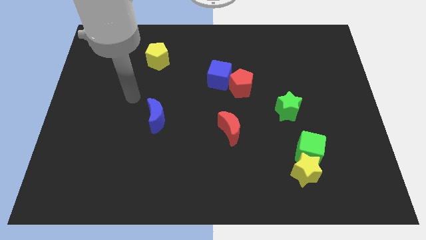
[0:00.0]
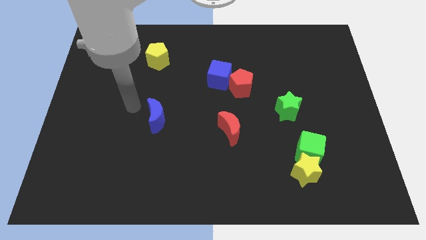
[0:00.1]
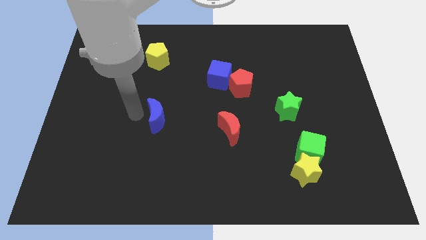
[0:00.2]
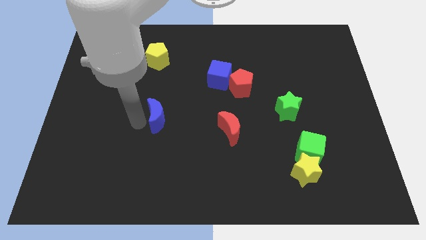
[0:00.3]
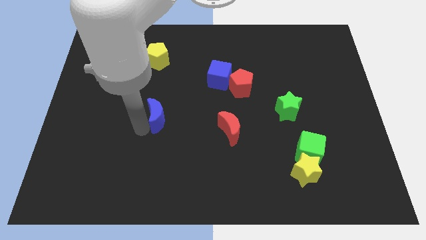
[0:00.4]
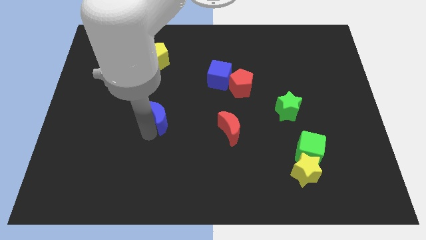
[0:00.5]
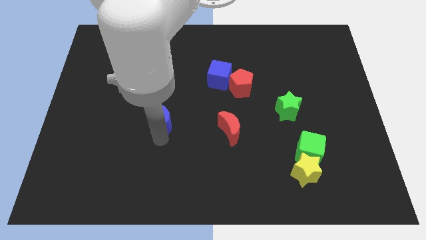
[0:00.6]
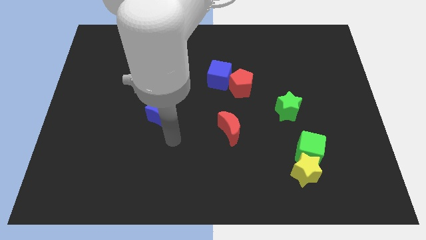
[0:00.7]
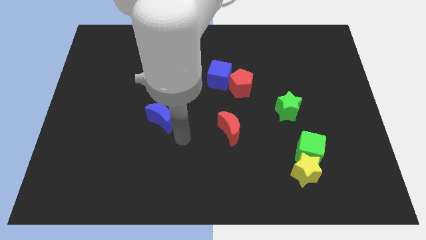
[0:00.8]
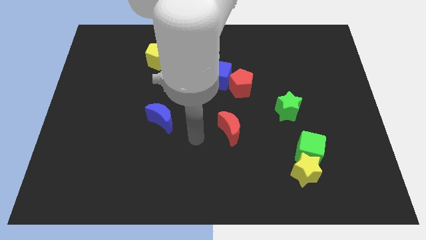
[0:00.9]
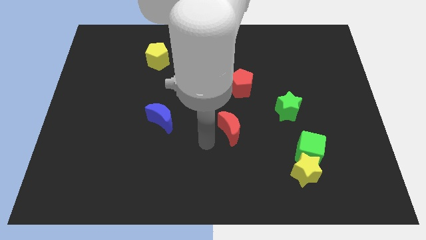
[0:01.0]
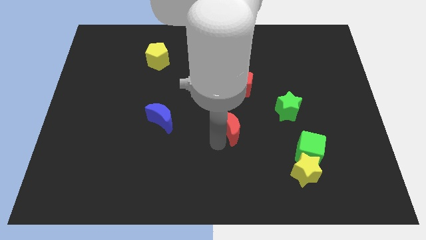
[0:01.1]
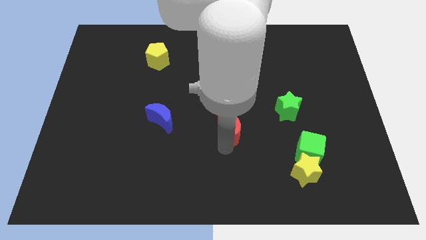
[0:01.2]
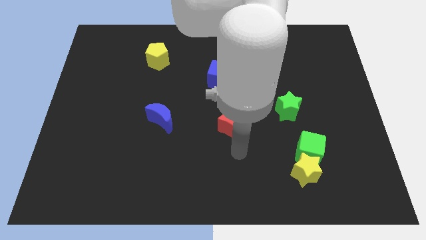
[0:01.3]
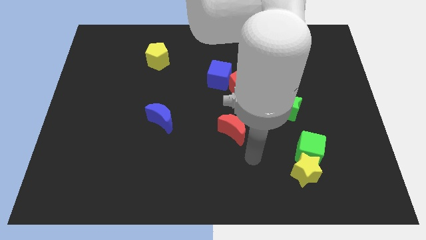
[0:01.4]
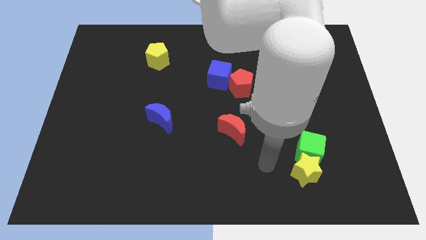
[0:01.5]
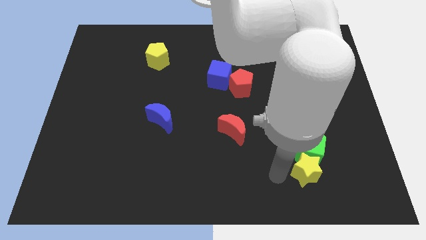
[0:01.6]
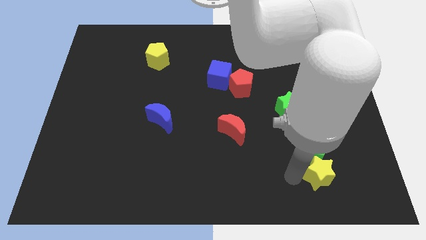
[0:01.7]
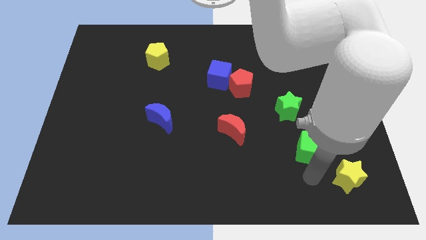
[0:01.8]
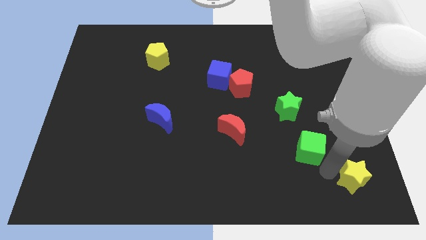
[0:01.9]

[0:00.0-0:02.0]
pull the green cube apart from the yellow star

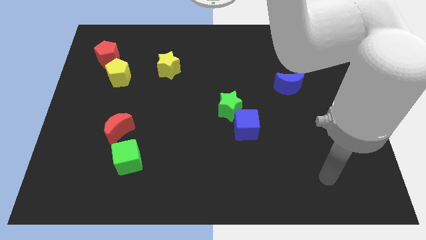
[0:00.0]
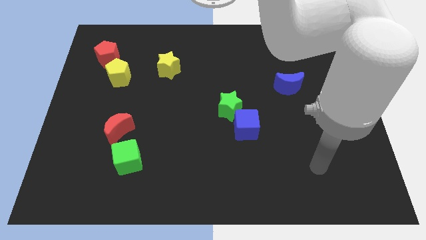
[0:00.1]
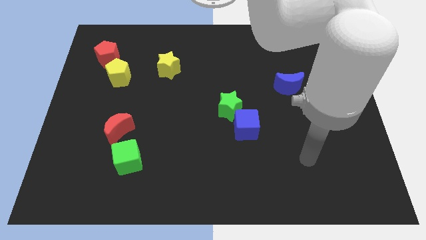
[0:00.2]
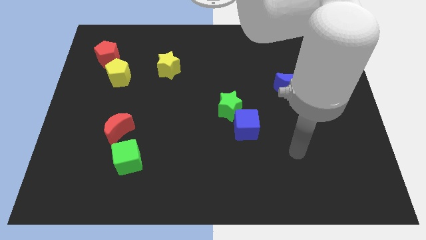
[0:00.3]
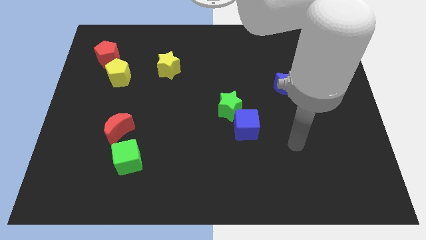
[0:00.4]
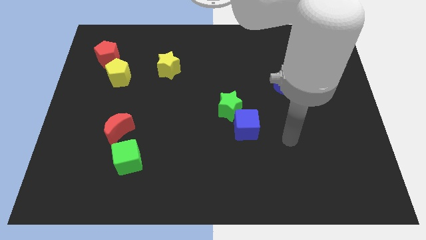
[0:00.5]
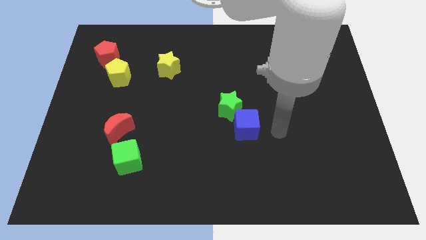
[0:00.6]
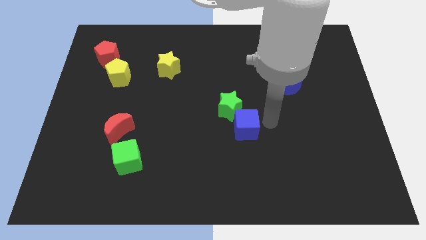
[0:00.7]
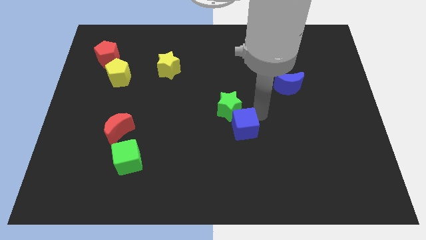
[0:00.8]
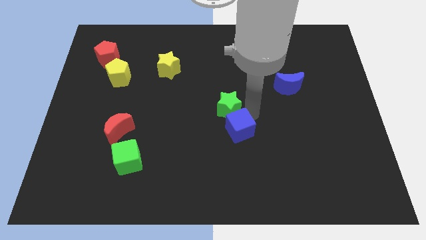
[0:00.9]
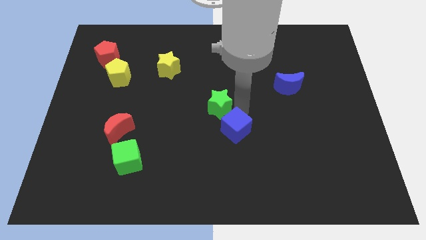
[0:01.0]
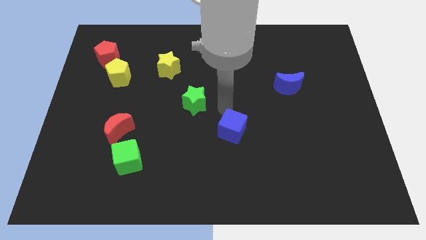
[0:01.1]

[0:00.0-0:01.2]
separate the blue cube from the green star

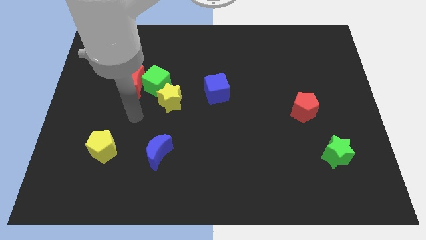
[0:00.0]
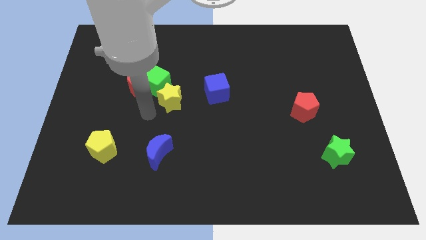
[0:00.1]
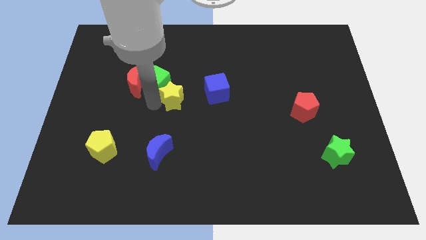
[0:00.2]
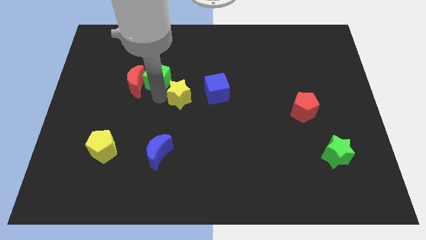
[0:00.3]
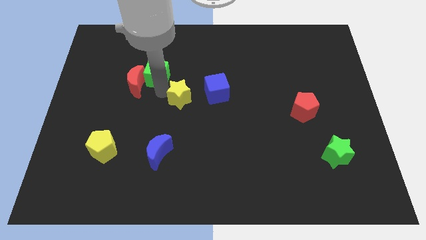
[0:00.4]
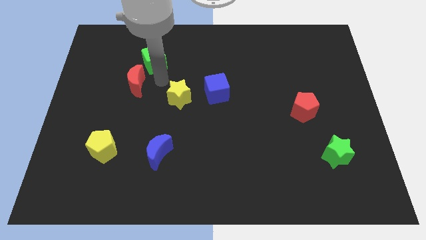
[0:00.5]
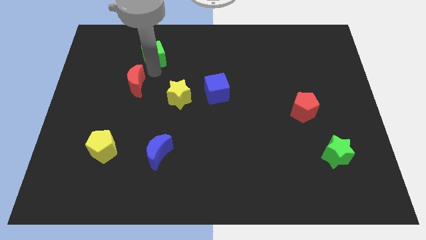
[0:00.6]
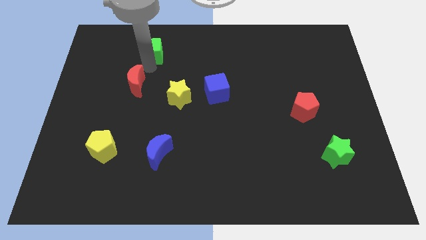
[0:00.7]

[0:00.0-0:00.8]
move the red moon away from the green cube

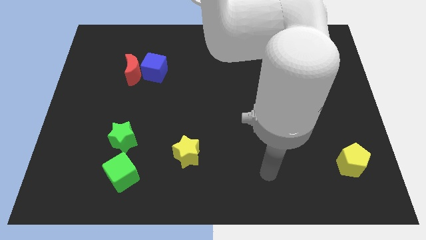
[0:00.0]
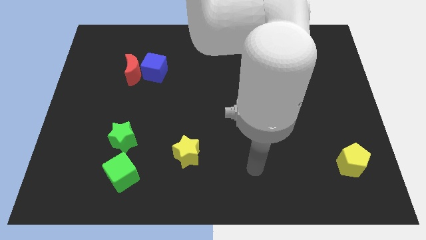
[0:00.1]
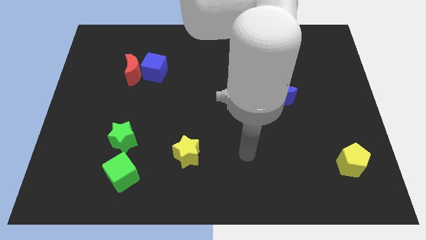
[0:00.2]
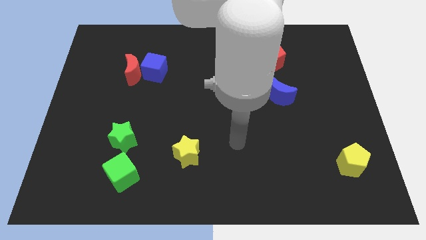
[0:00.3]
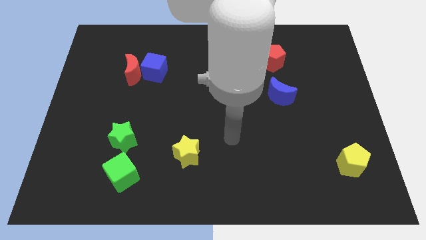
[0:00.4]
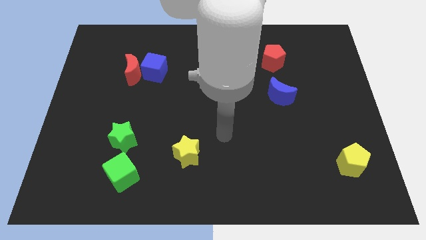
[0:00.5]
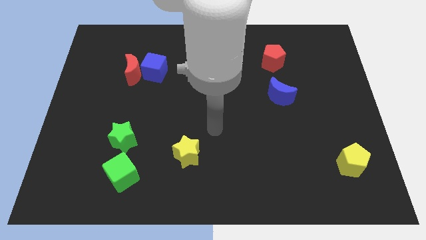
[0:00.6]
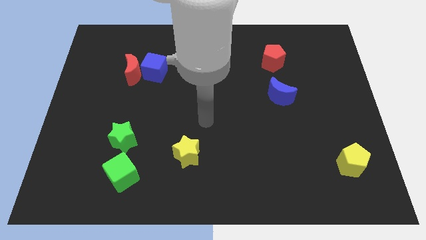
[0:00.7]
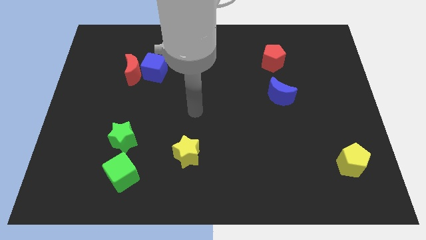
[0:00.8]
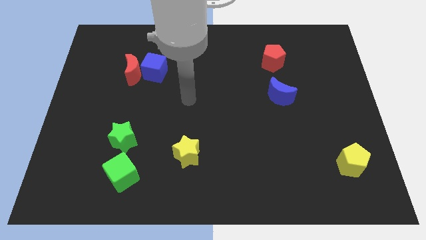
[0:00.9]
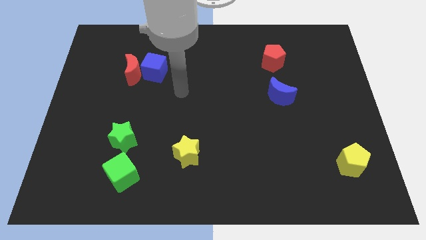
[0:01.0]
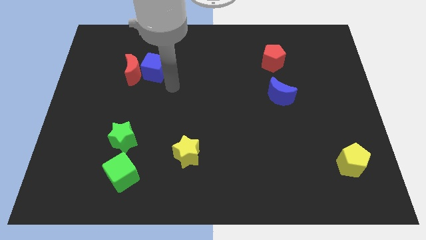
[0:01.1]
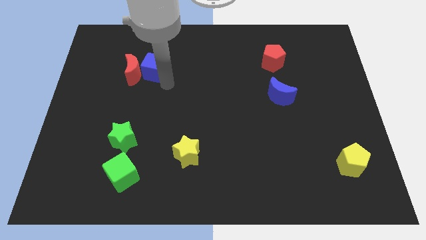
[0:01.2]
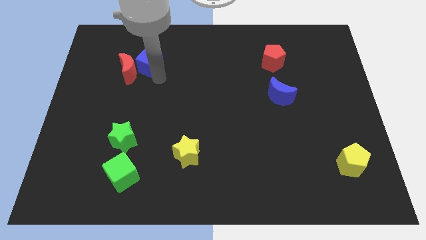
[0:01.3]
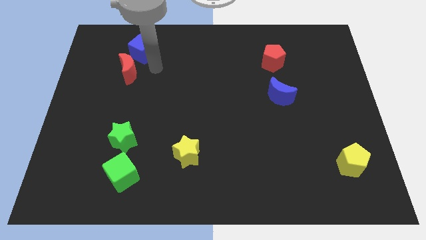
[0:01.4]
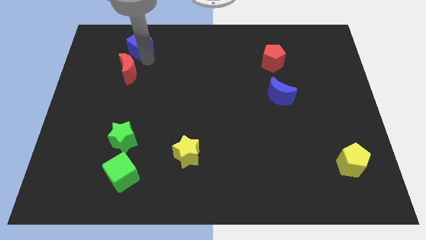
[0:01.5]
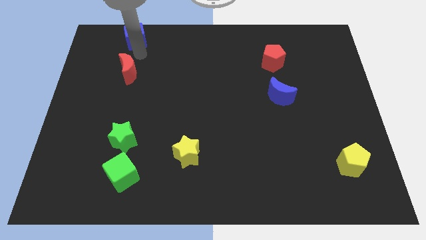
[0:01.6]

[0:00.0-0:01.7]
move the red moon away from the blue cube

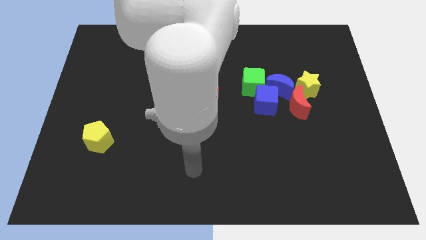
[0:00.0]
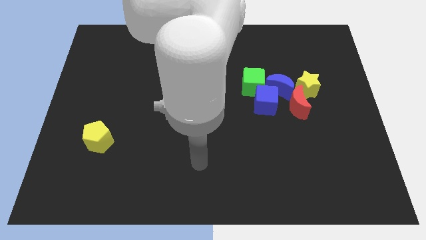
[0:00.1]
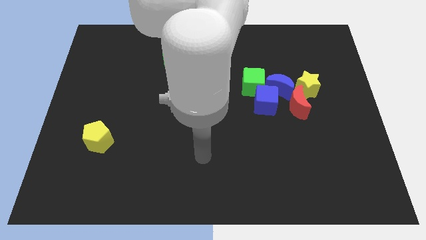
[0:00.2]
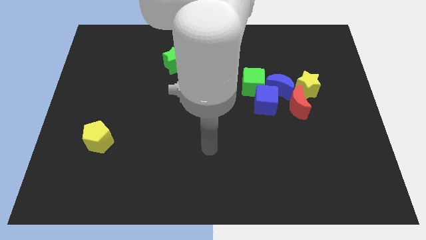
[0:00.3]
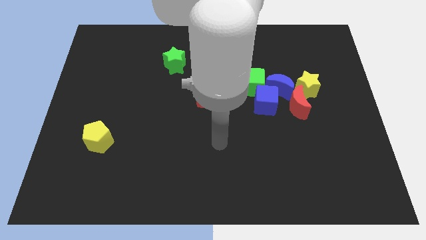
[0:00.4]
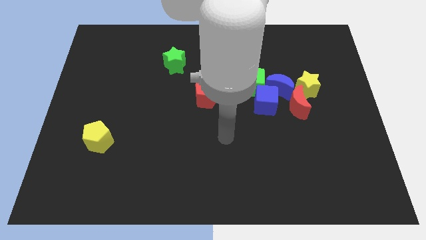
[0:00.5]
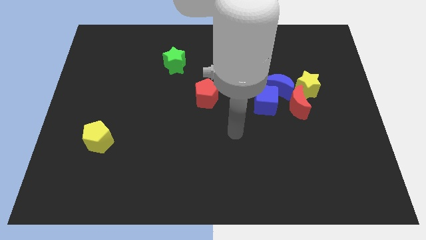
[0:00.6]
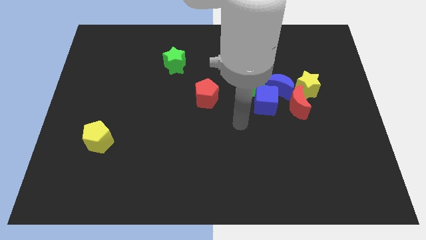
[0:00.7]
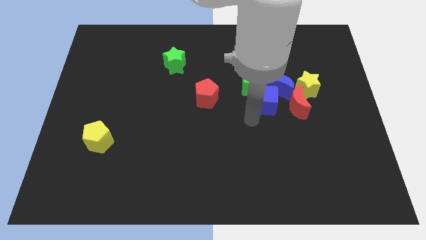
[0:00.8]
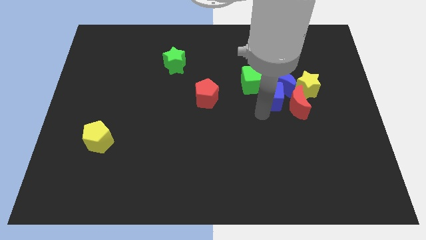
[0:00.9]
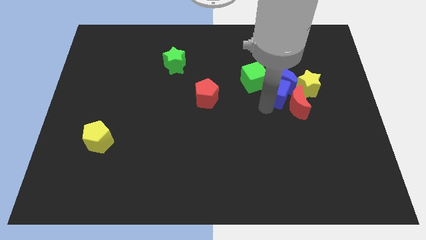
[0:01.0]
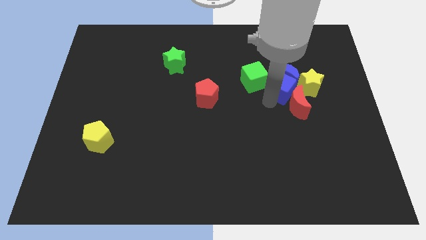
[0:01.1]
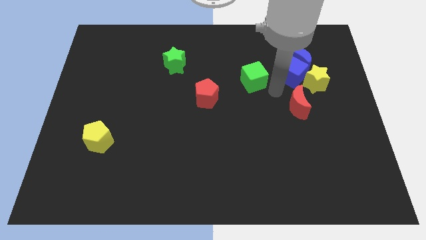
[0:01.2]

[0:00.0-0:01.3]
separate the green cube from the blue cube and blue moon

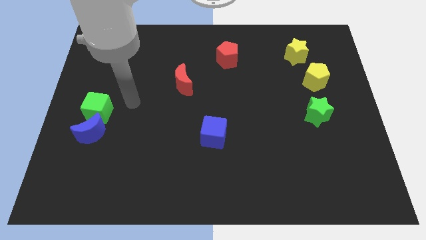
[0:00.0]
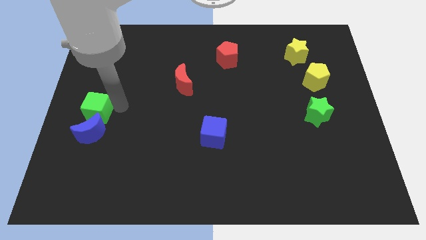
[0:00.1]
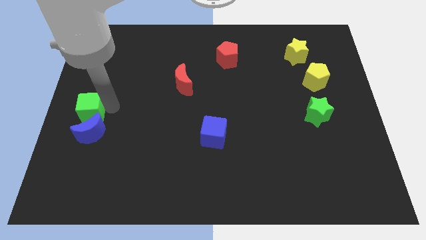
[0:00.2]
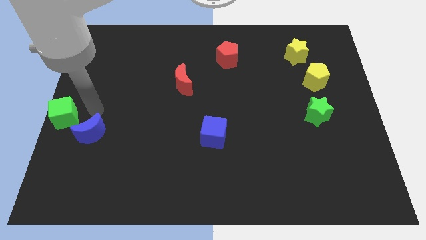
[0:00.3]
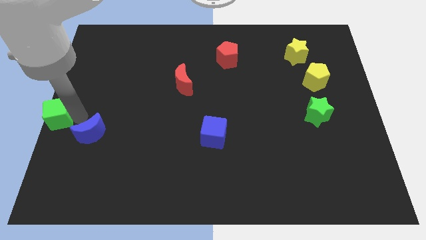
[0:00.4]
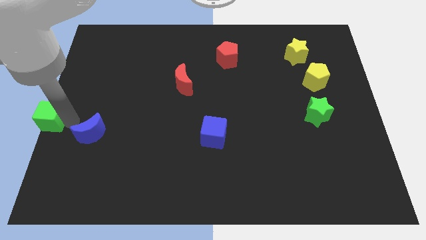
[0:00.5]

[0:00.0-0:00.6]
pull the blue moon apart from the green cube

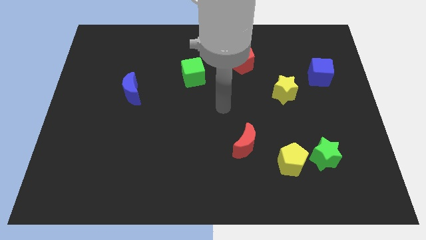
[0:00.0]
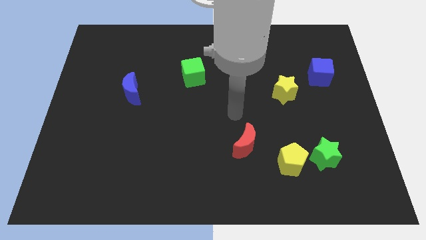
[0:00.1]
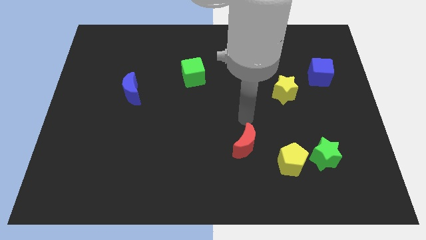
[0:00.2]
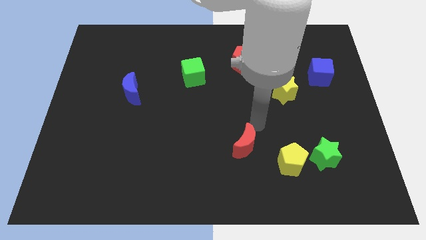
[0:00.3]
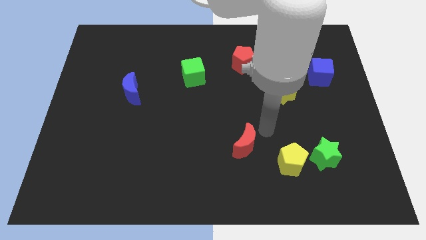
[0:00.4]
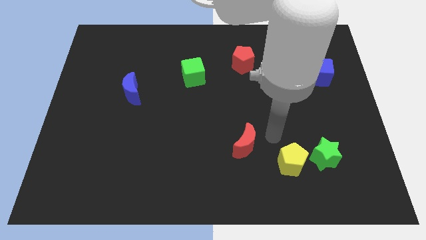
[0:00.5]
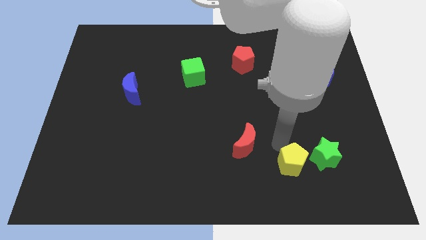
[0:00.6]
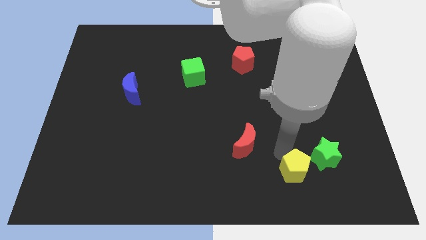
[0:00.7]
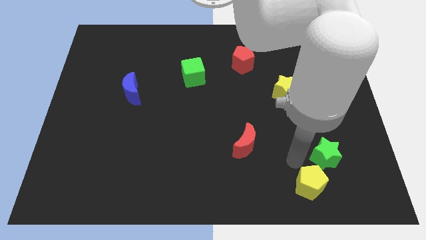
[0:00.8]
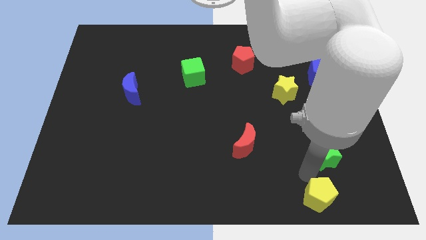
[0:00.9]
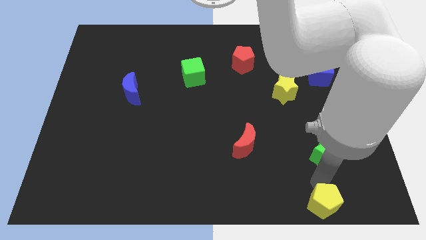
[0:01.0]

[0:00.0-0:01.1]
pull the green star apart from the yellow pentagon

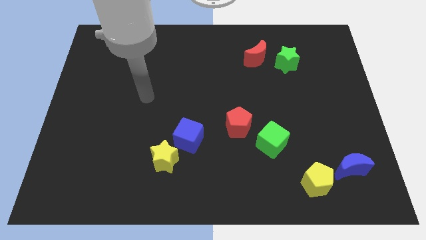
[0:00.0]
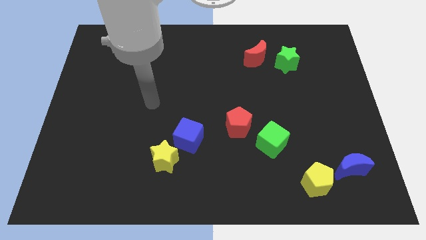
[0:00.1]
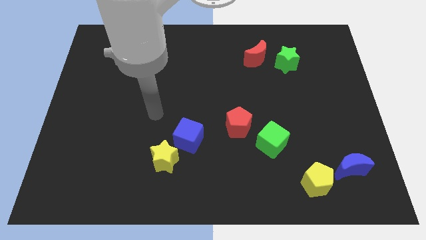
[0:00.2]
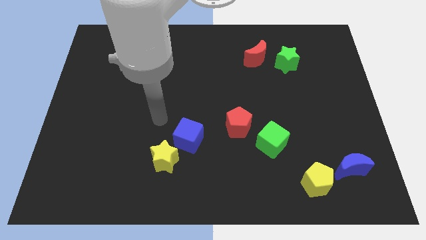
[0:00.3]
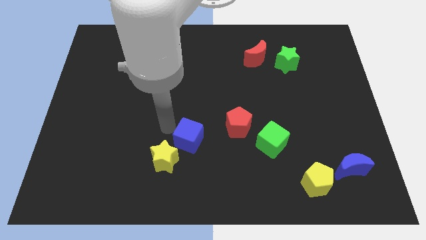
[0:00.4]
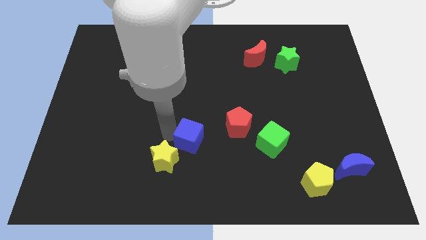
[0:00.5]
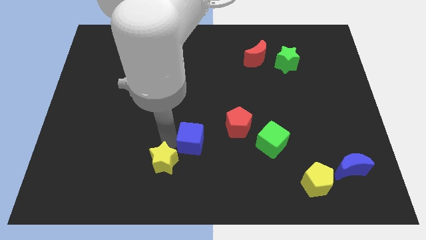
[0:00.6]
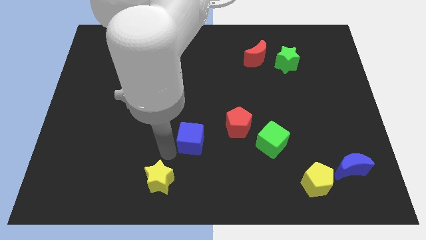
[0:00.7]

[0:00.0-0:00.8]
separate the blue cube from the yellow star

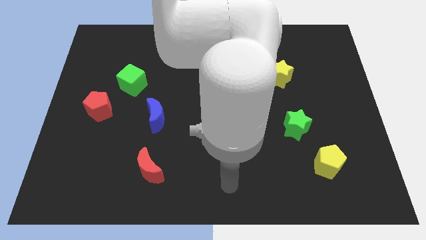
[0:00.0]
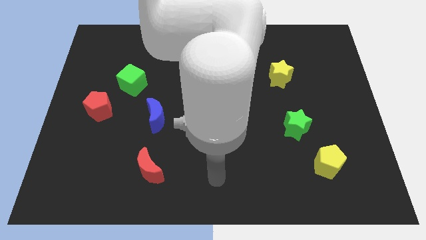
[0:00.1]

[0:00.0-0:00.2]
pull the red pentagon apart from the green cube
